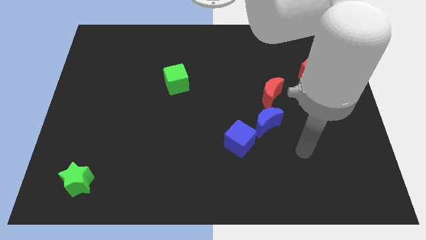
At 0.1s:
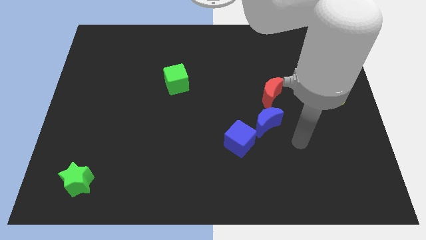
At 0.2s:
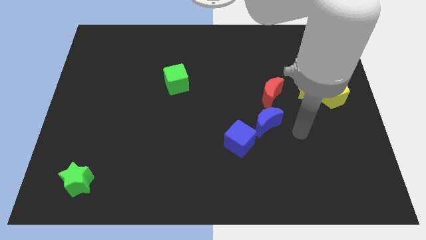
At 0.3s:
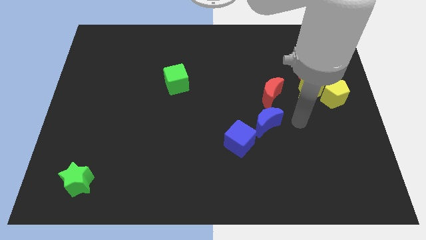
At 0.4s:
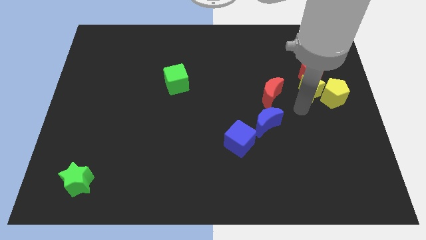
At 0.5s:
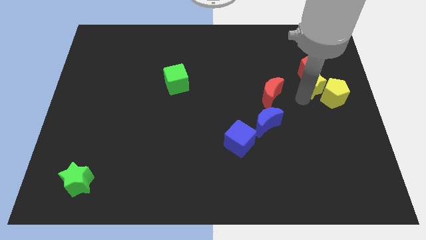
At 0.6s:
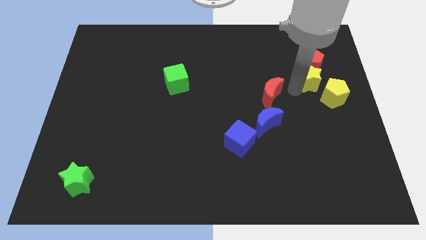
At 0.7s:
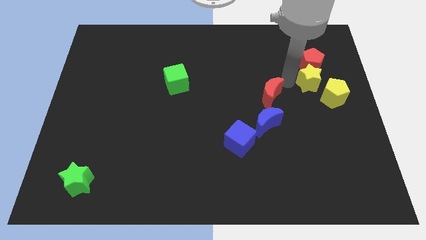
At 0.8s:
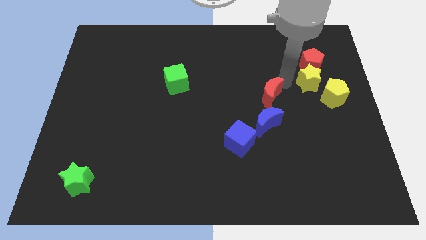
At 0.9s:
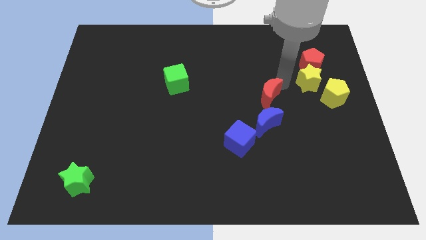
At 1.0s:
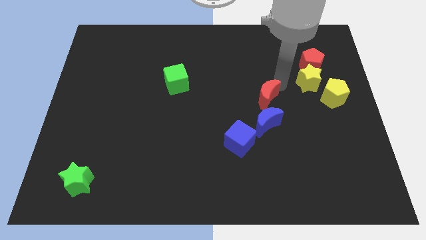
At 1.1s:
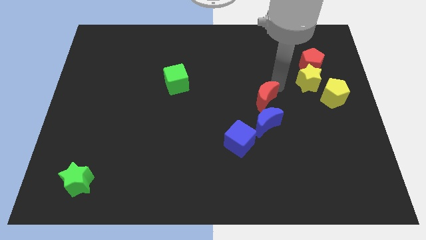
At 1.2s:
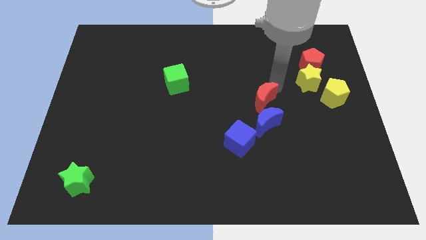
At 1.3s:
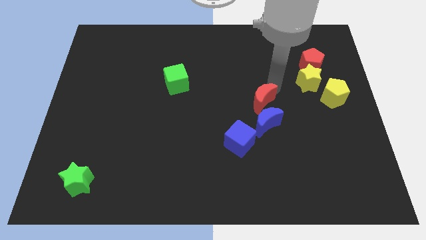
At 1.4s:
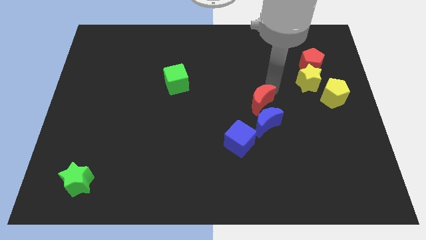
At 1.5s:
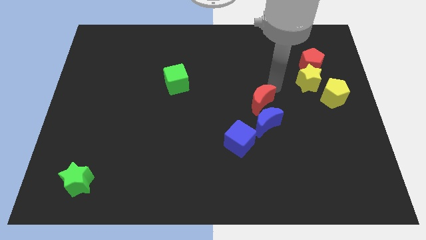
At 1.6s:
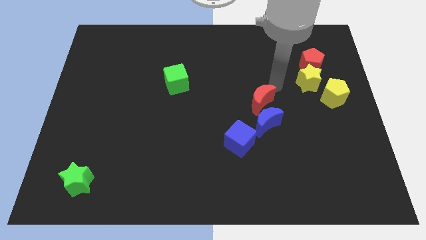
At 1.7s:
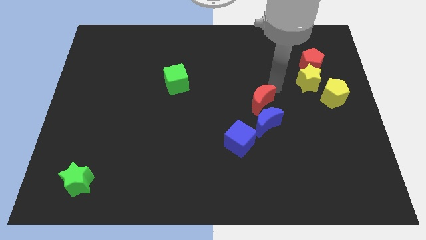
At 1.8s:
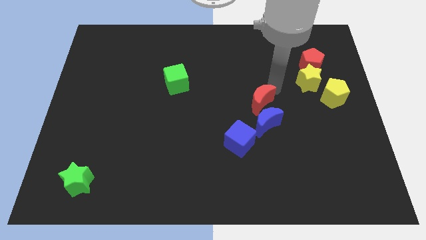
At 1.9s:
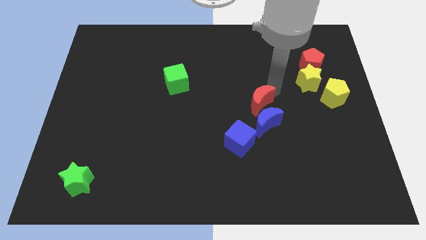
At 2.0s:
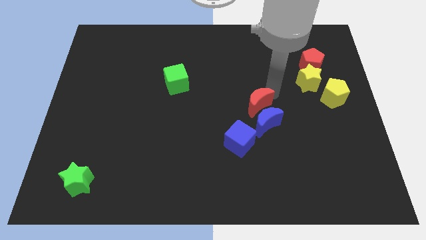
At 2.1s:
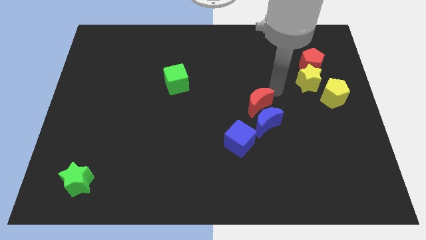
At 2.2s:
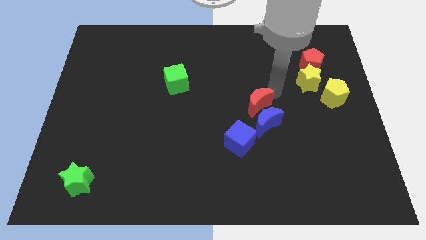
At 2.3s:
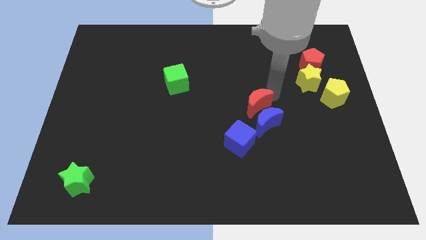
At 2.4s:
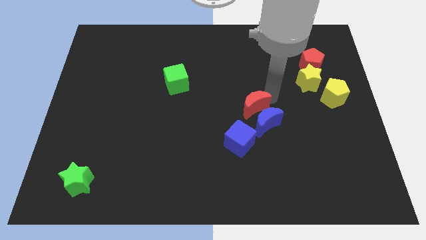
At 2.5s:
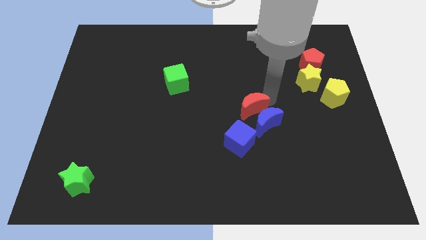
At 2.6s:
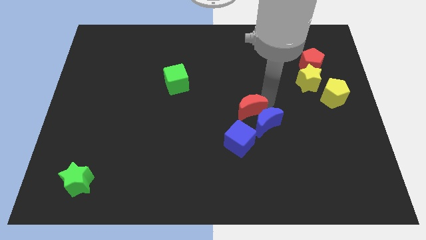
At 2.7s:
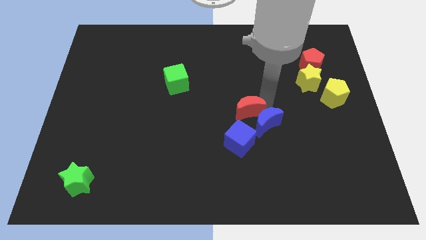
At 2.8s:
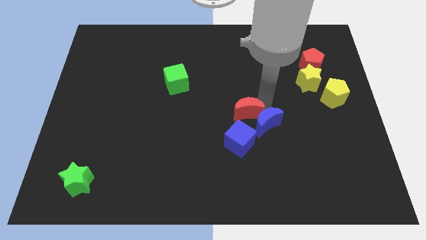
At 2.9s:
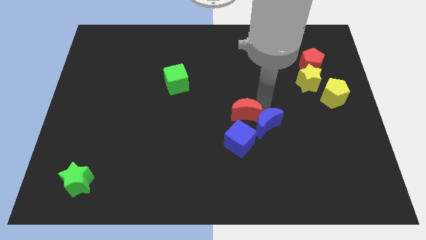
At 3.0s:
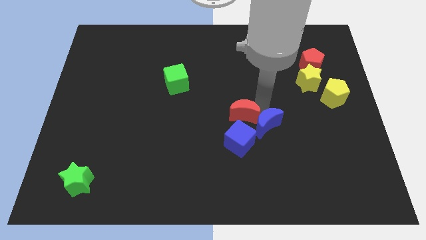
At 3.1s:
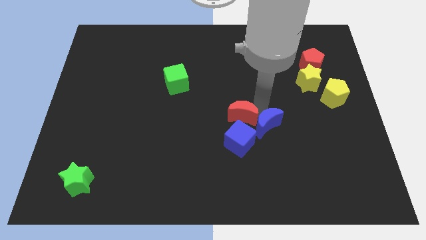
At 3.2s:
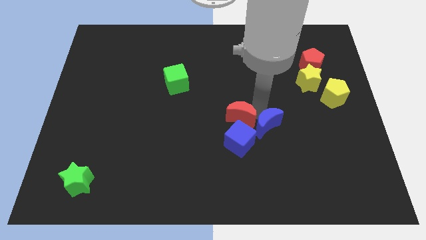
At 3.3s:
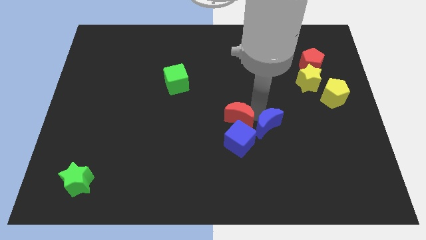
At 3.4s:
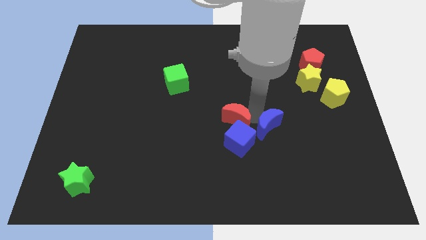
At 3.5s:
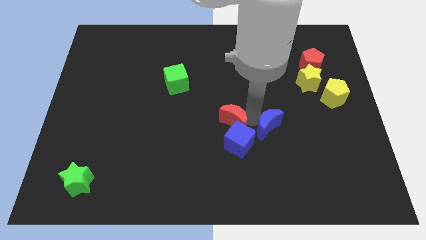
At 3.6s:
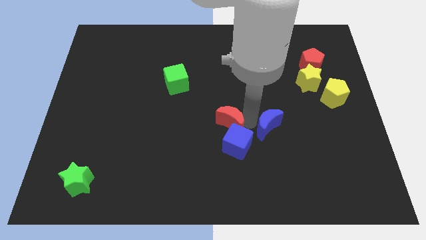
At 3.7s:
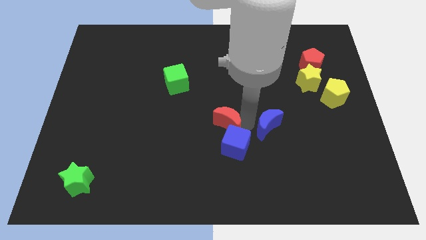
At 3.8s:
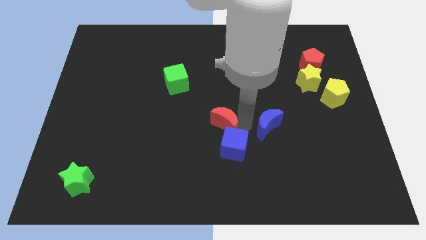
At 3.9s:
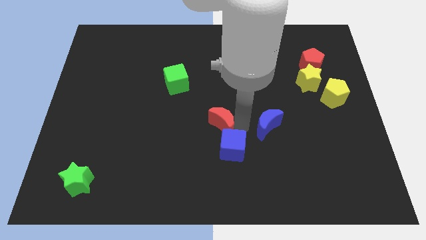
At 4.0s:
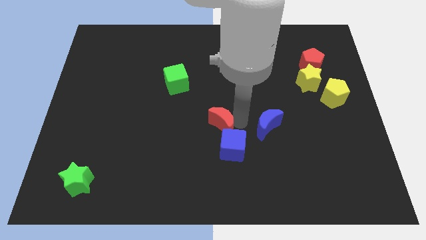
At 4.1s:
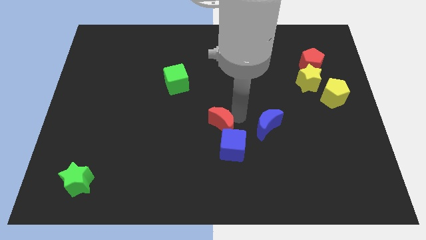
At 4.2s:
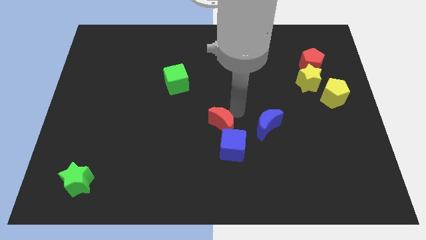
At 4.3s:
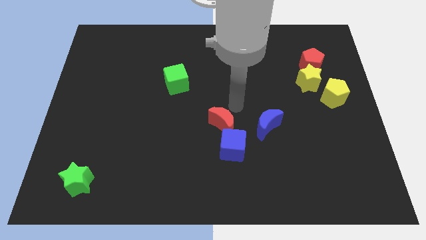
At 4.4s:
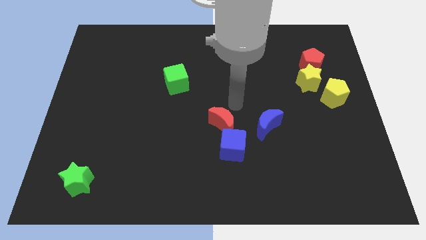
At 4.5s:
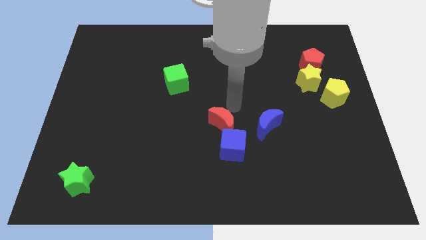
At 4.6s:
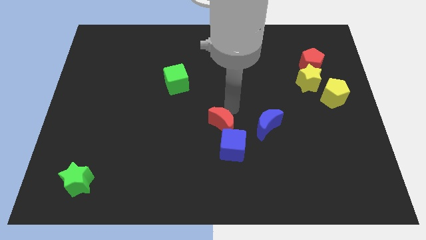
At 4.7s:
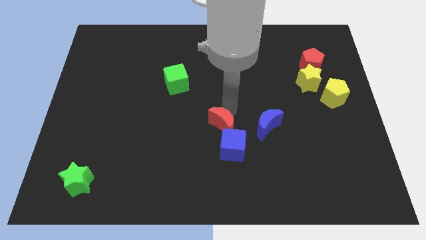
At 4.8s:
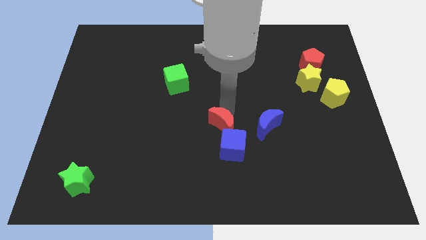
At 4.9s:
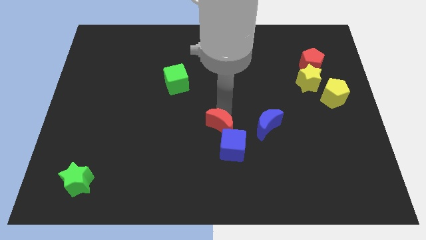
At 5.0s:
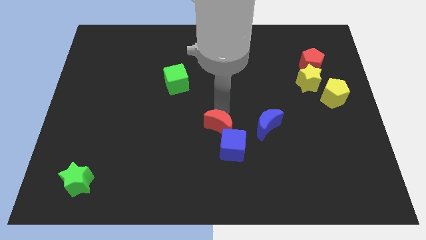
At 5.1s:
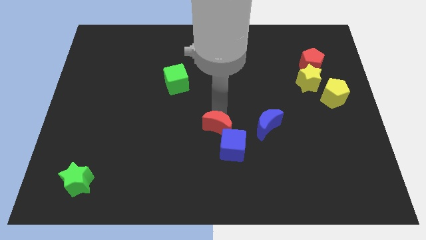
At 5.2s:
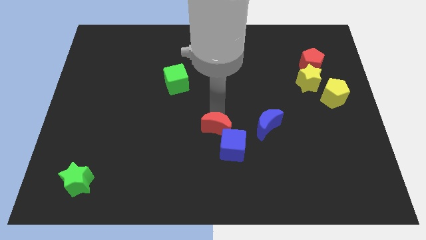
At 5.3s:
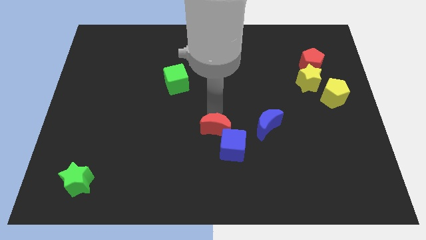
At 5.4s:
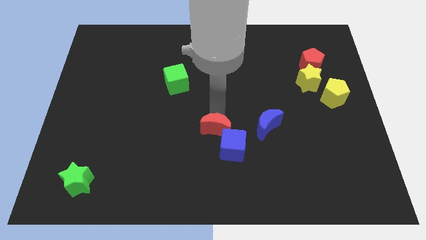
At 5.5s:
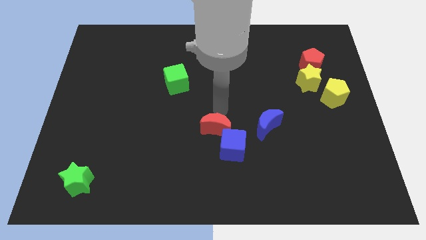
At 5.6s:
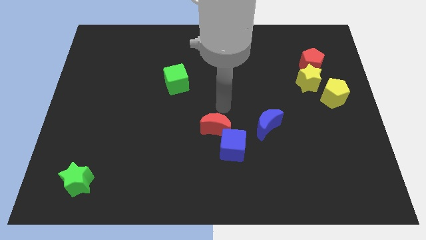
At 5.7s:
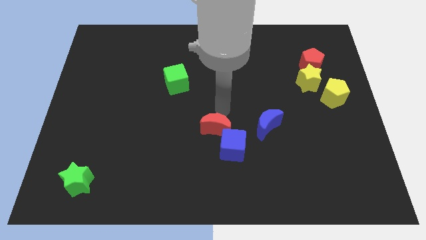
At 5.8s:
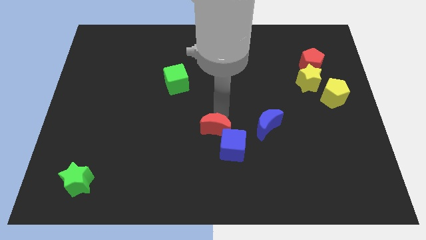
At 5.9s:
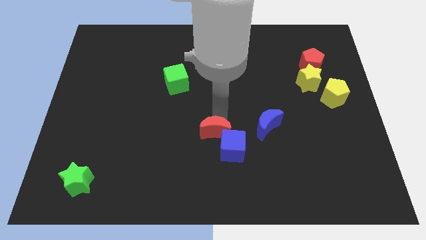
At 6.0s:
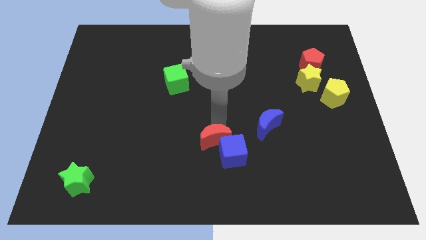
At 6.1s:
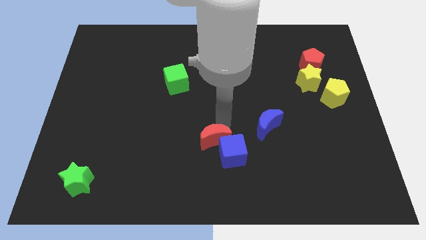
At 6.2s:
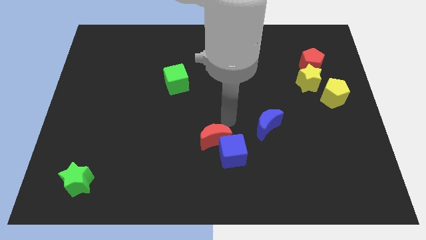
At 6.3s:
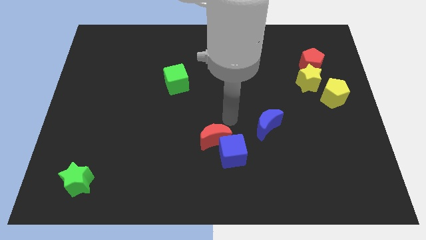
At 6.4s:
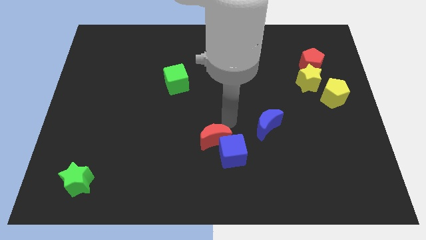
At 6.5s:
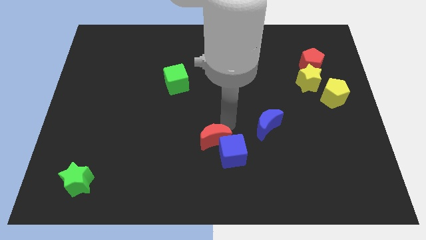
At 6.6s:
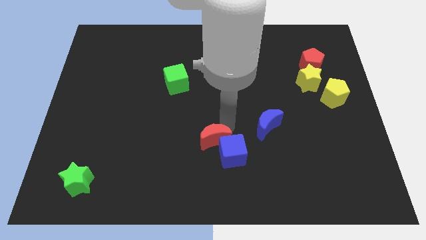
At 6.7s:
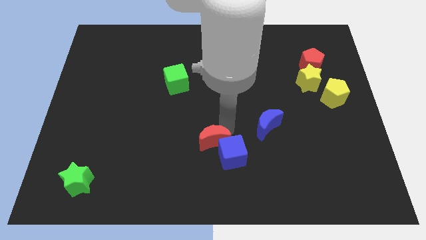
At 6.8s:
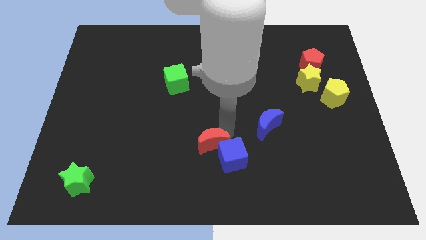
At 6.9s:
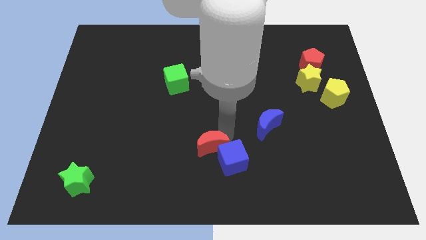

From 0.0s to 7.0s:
slide the red moon down and left diagonally

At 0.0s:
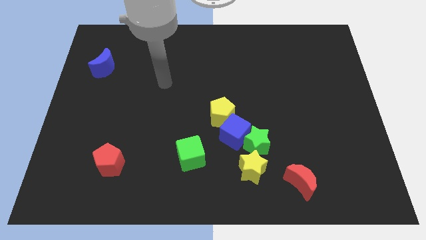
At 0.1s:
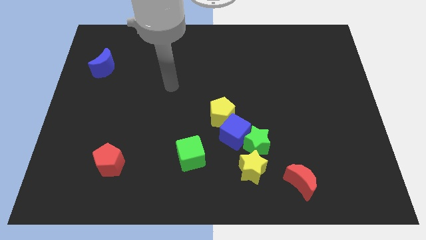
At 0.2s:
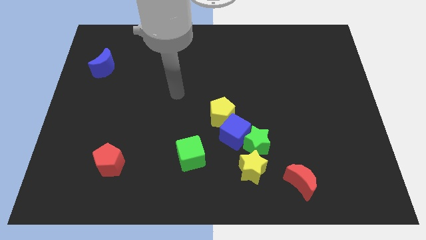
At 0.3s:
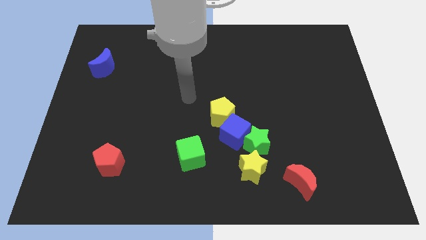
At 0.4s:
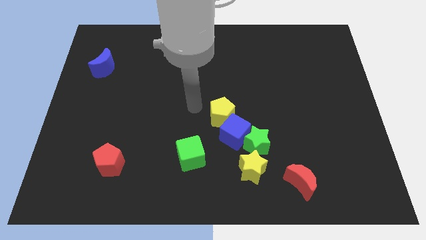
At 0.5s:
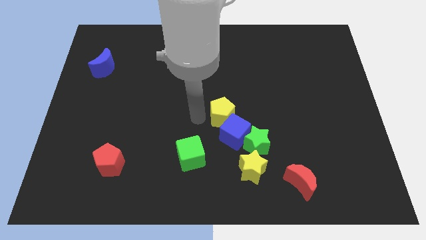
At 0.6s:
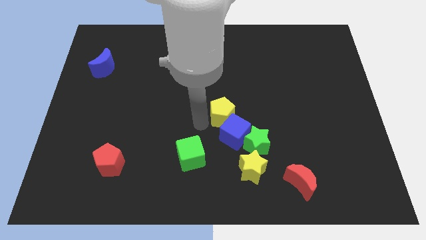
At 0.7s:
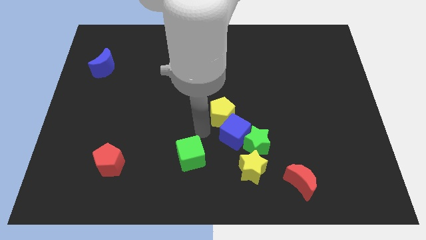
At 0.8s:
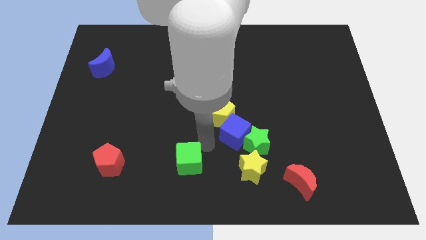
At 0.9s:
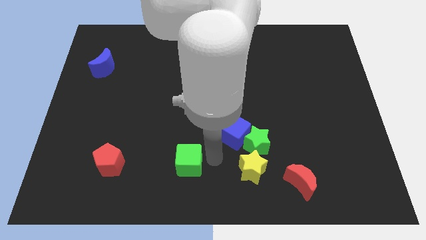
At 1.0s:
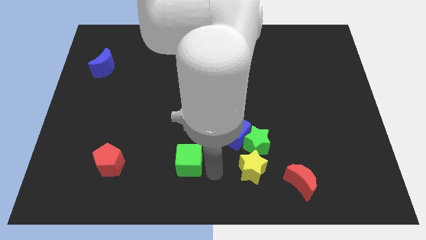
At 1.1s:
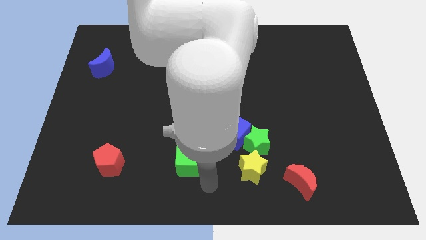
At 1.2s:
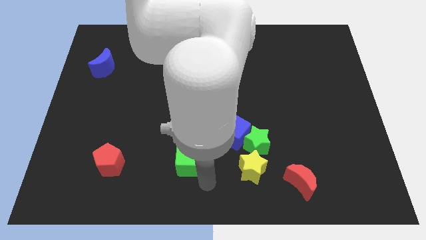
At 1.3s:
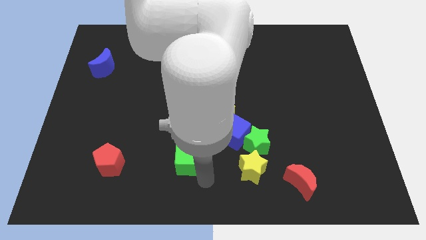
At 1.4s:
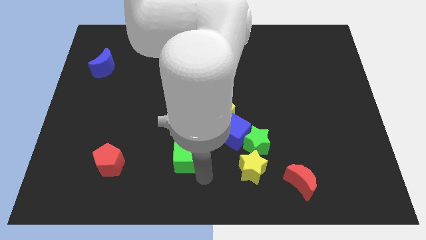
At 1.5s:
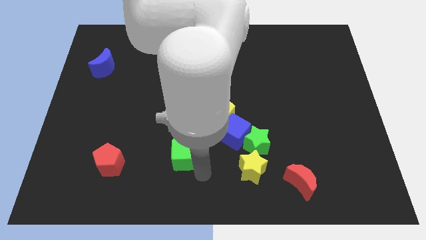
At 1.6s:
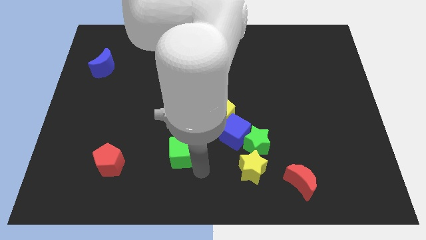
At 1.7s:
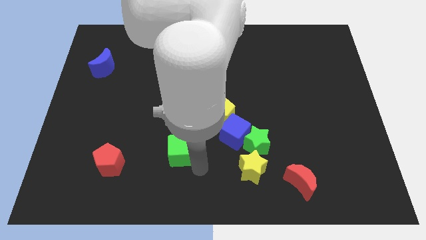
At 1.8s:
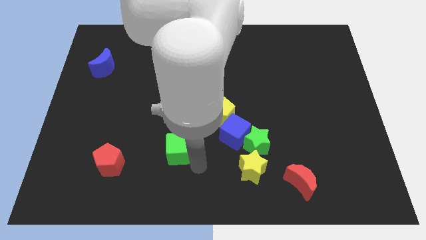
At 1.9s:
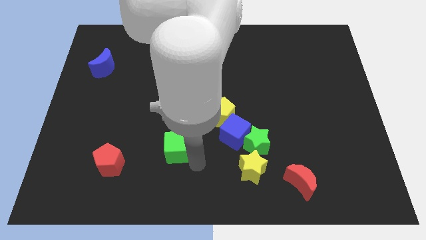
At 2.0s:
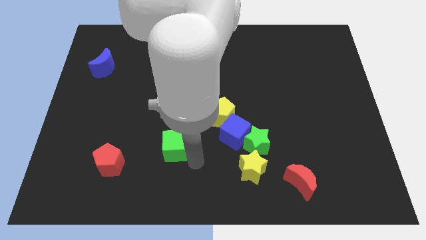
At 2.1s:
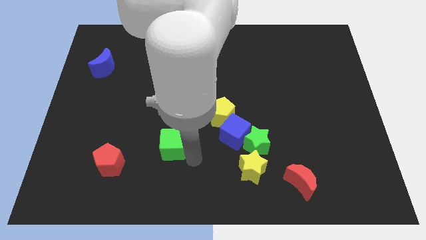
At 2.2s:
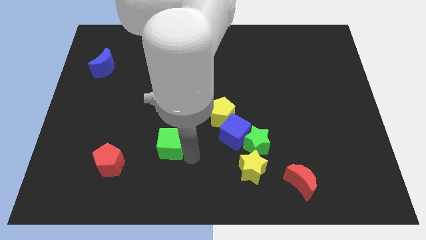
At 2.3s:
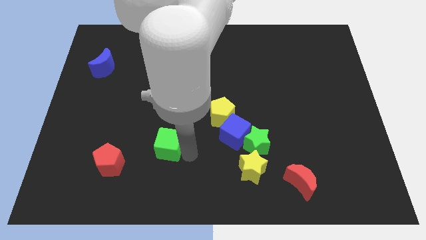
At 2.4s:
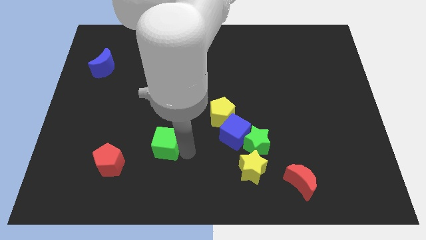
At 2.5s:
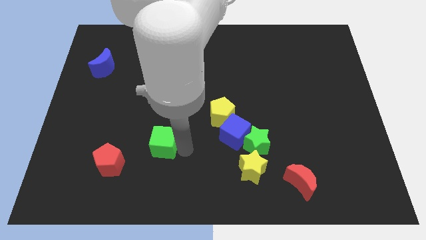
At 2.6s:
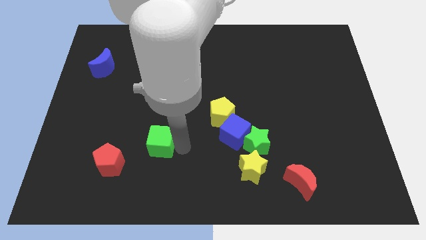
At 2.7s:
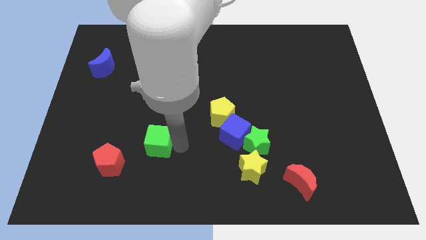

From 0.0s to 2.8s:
slide the green cube diagonally up and left a little
